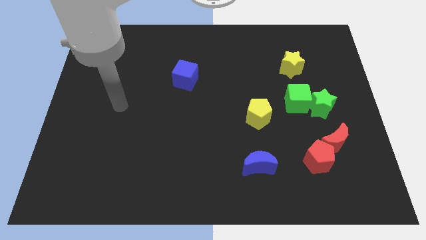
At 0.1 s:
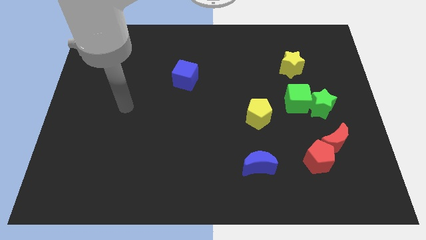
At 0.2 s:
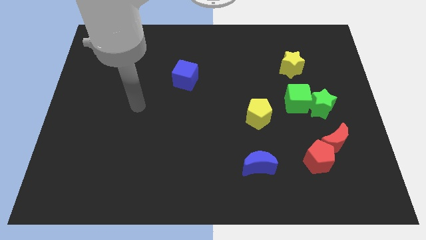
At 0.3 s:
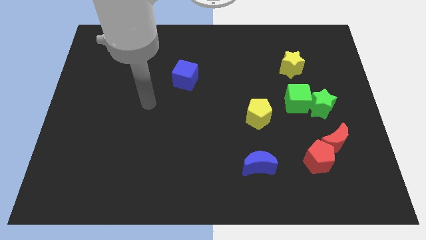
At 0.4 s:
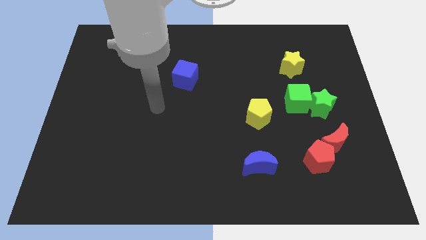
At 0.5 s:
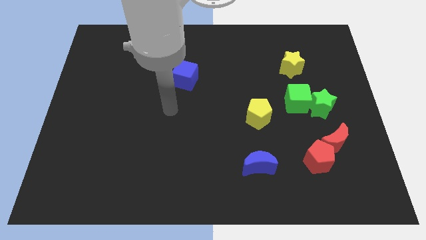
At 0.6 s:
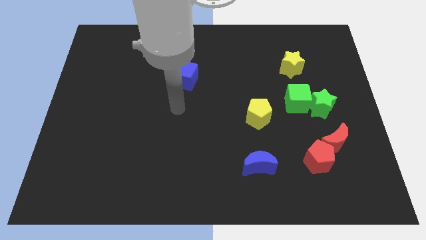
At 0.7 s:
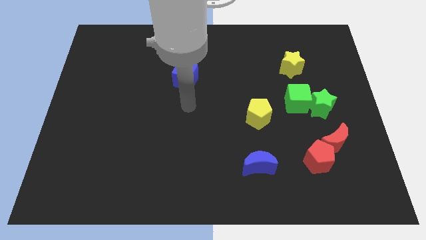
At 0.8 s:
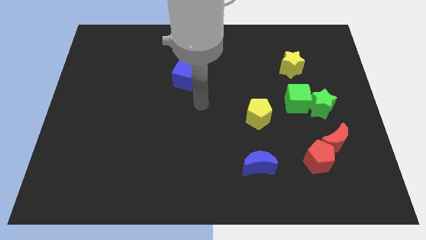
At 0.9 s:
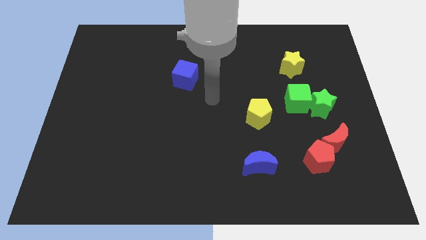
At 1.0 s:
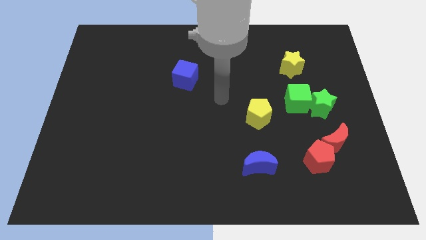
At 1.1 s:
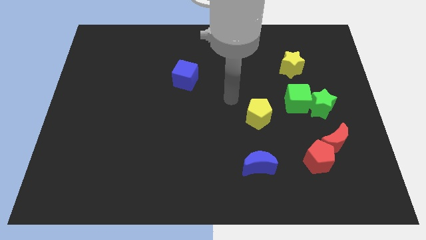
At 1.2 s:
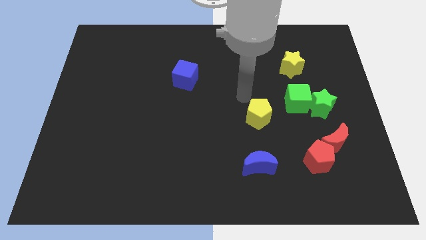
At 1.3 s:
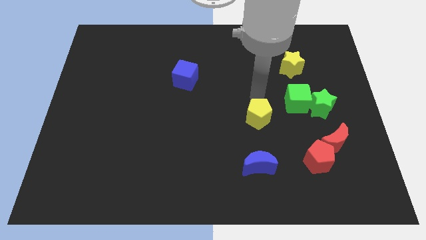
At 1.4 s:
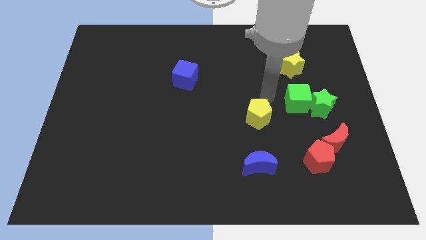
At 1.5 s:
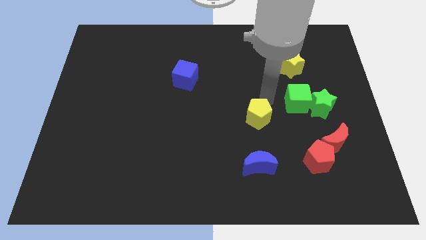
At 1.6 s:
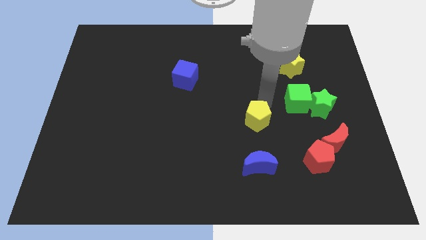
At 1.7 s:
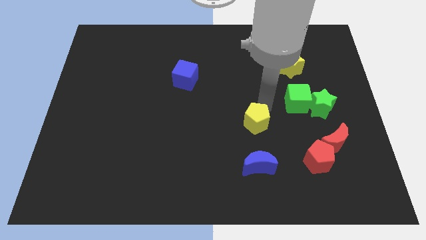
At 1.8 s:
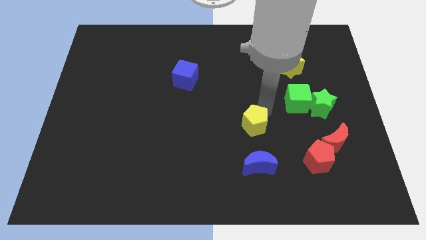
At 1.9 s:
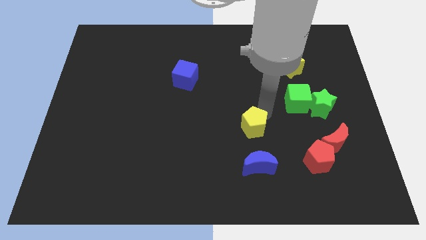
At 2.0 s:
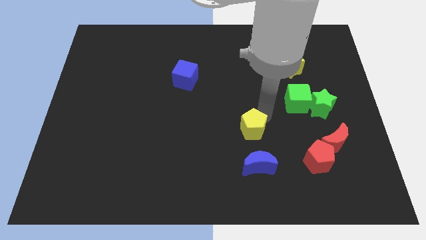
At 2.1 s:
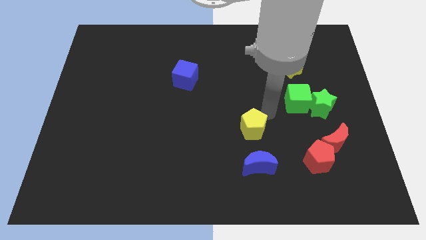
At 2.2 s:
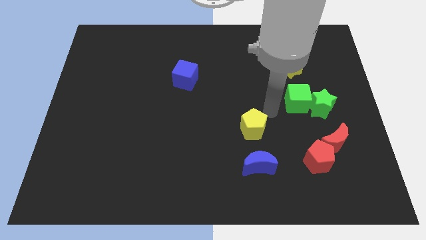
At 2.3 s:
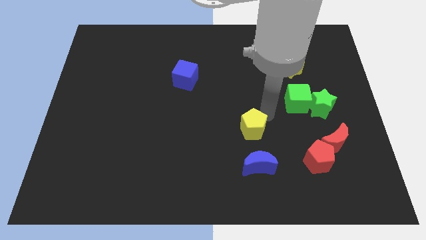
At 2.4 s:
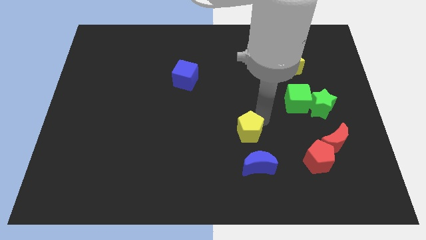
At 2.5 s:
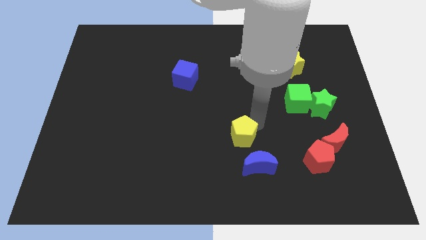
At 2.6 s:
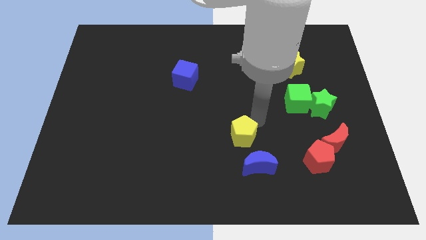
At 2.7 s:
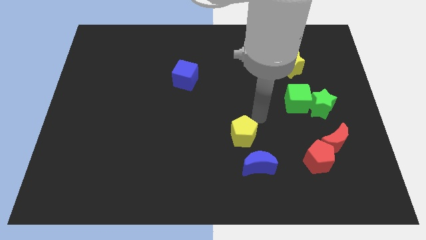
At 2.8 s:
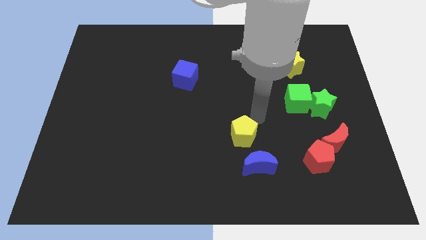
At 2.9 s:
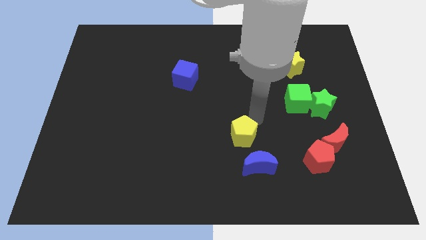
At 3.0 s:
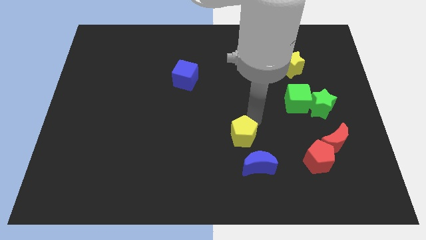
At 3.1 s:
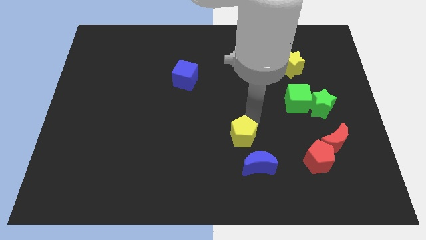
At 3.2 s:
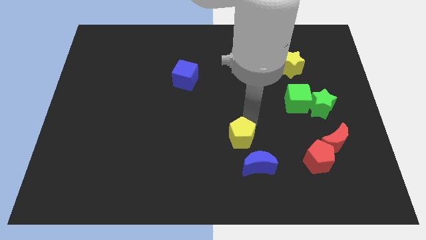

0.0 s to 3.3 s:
slide the yellow pentagon slightly down and to the left diagonally

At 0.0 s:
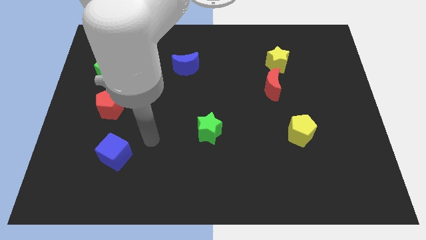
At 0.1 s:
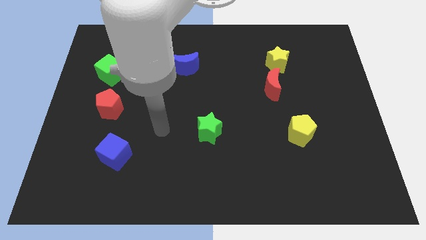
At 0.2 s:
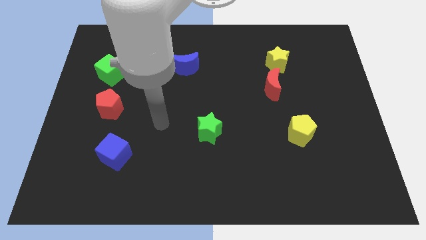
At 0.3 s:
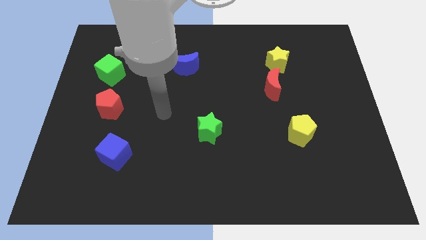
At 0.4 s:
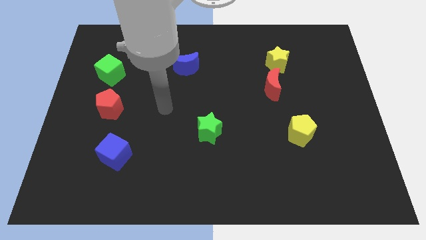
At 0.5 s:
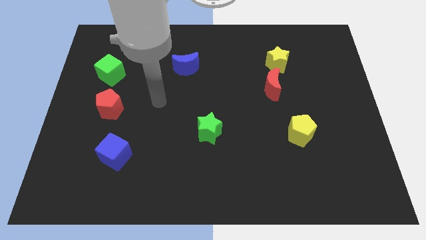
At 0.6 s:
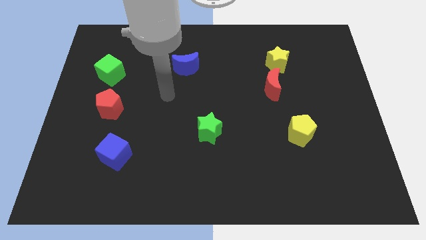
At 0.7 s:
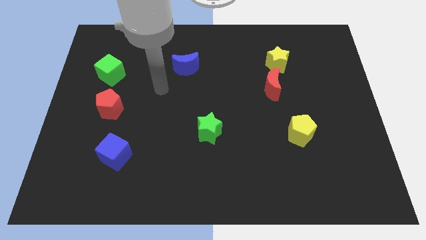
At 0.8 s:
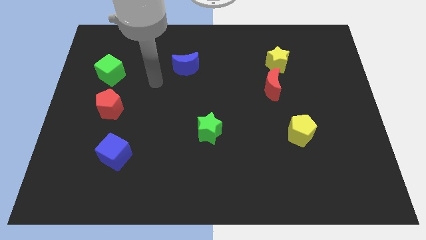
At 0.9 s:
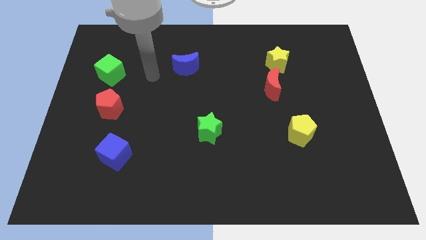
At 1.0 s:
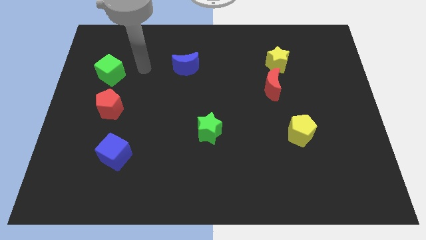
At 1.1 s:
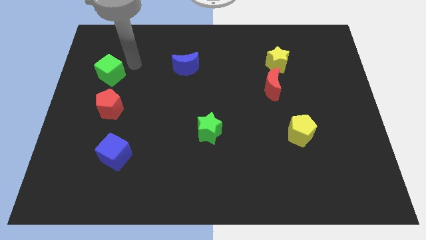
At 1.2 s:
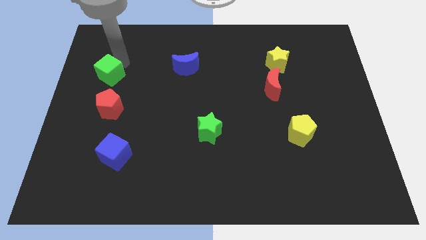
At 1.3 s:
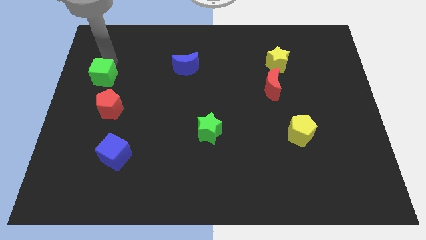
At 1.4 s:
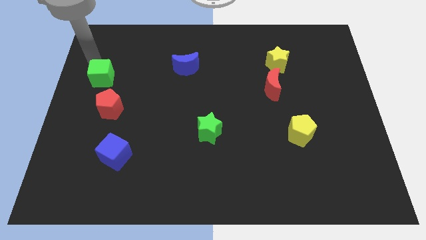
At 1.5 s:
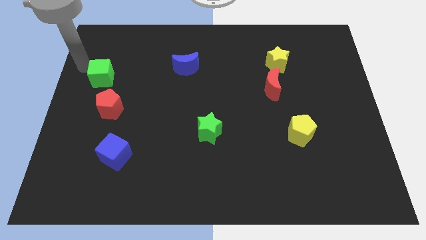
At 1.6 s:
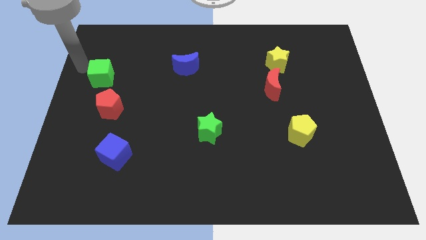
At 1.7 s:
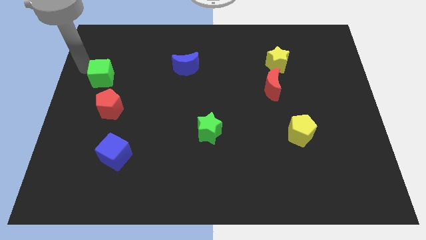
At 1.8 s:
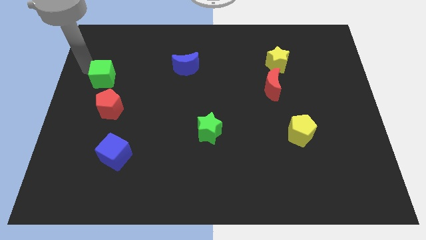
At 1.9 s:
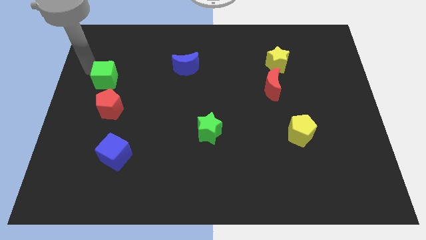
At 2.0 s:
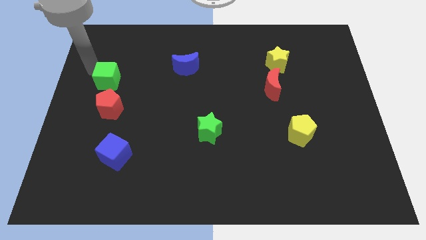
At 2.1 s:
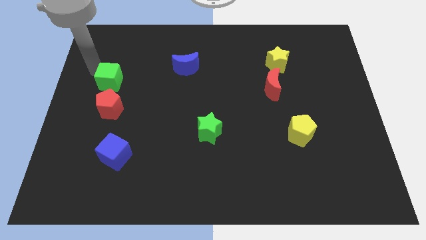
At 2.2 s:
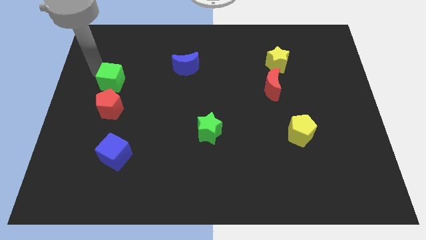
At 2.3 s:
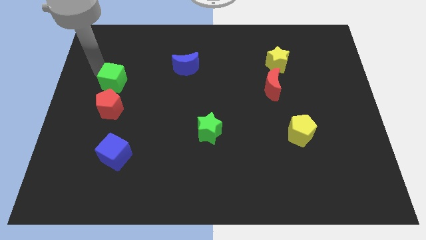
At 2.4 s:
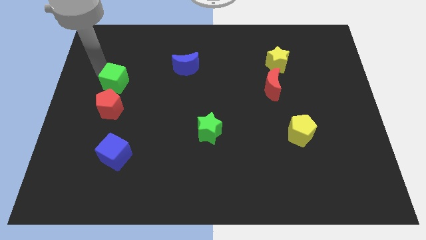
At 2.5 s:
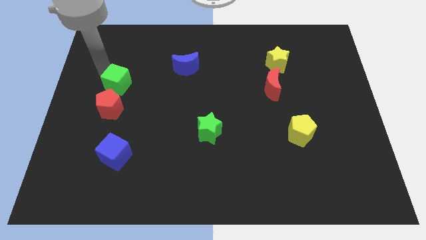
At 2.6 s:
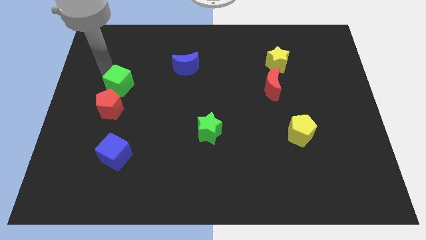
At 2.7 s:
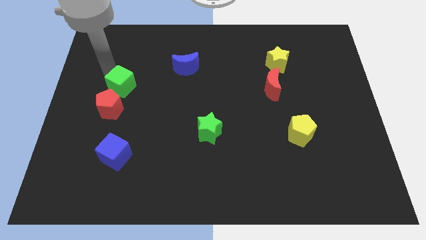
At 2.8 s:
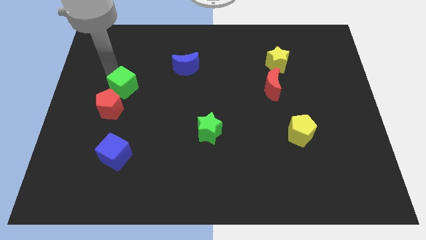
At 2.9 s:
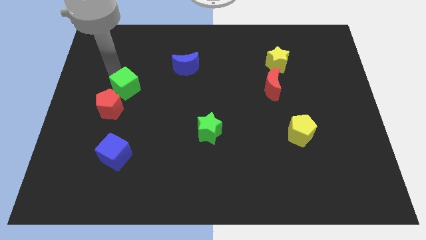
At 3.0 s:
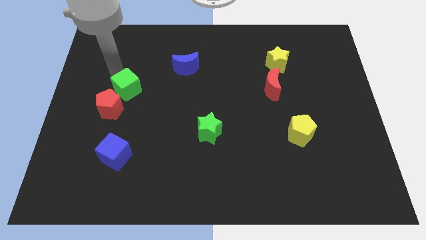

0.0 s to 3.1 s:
slightly move the green cube downwards and then to the right

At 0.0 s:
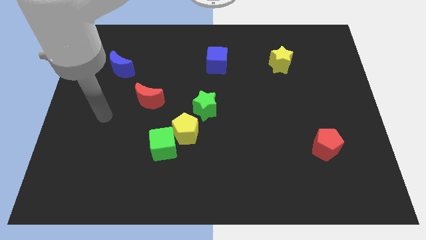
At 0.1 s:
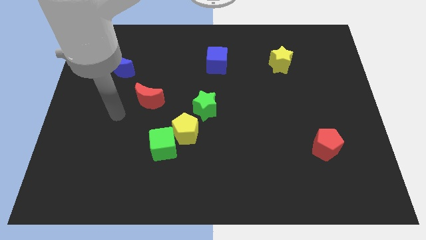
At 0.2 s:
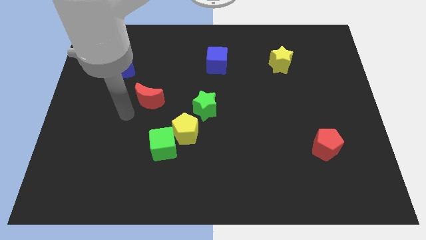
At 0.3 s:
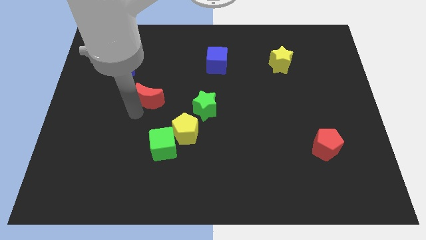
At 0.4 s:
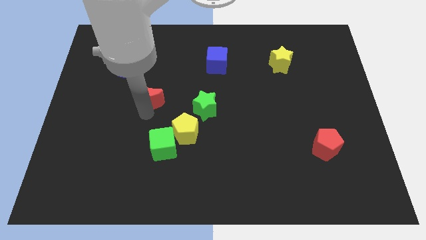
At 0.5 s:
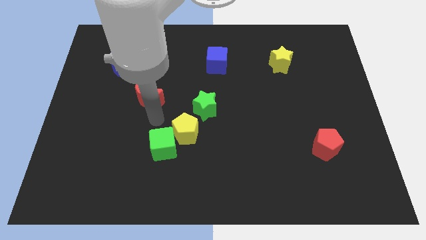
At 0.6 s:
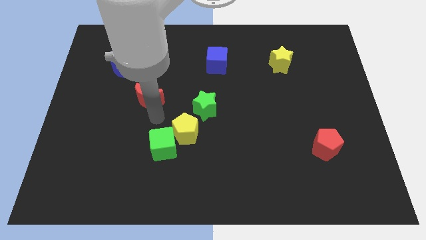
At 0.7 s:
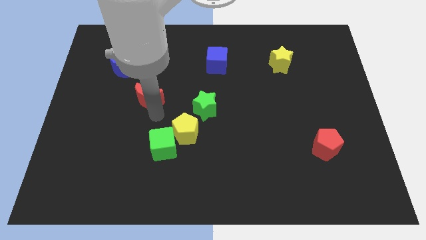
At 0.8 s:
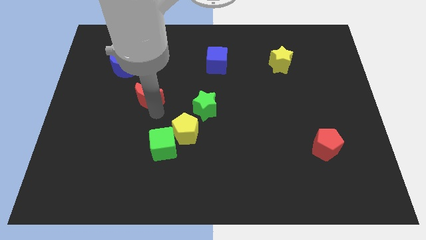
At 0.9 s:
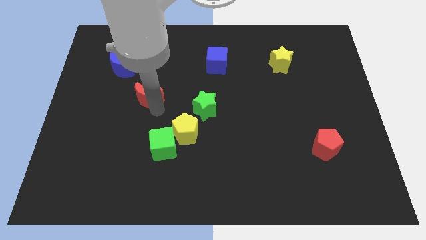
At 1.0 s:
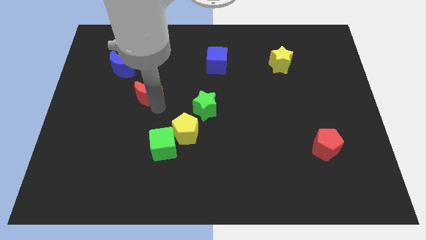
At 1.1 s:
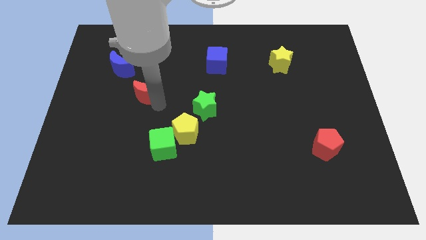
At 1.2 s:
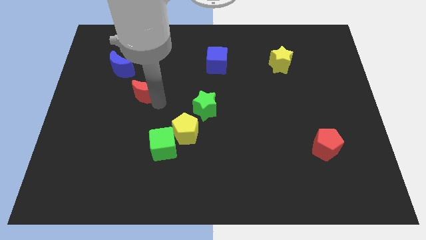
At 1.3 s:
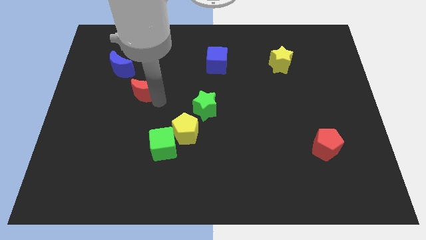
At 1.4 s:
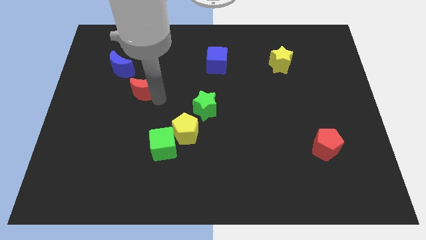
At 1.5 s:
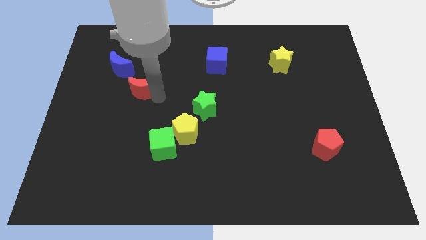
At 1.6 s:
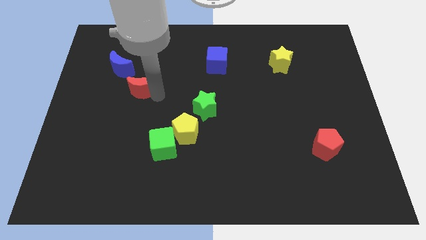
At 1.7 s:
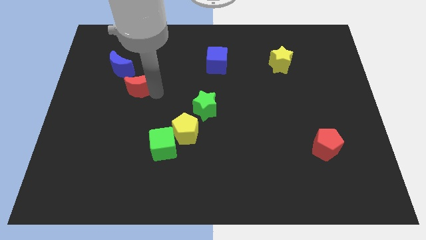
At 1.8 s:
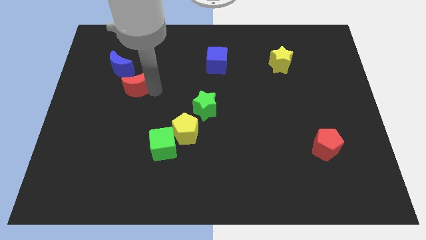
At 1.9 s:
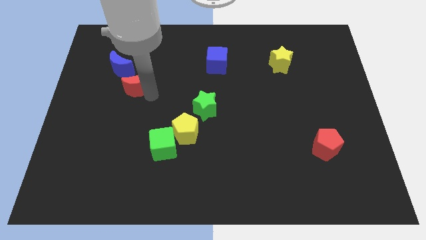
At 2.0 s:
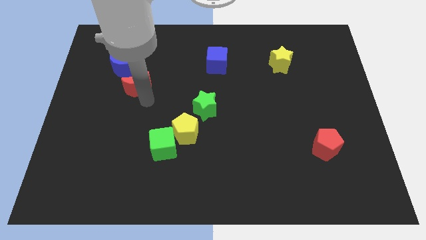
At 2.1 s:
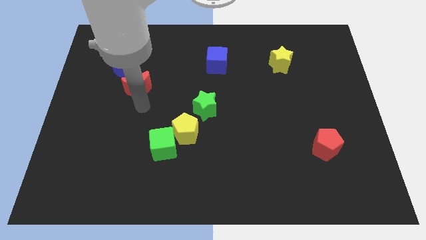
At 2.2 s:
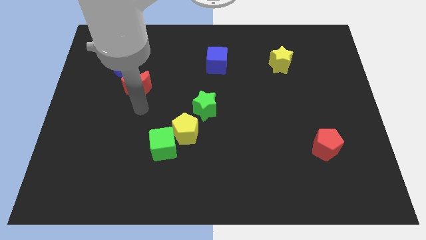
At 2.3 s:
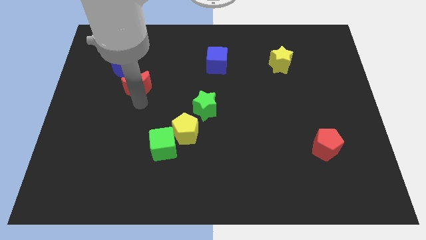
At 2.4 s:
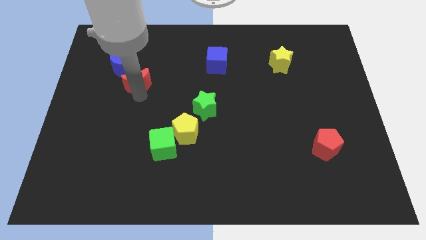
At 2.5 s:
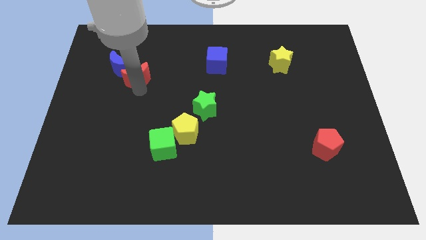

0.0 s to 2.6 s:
move the red moon upwards and to the left somewhat
